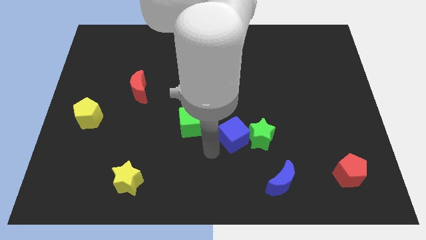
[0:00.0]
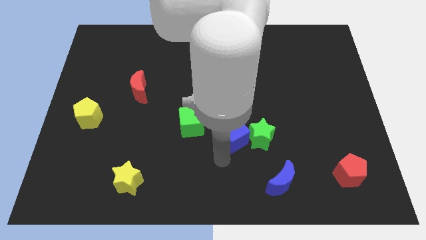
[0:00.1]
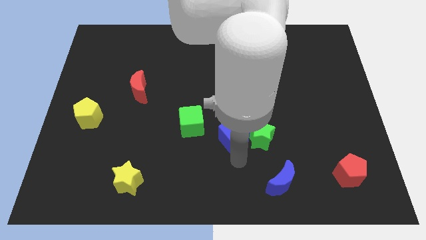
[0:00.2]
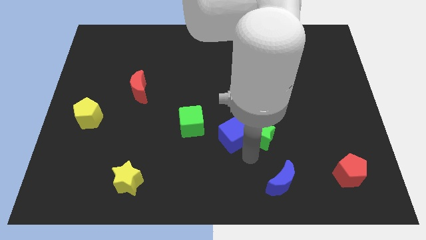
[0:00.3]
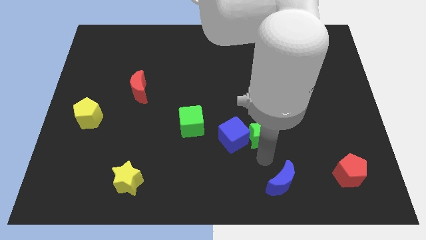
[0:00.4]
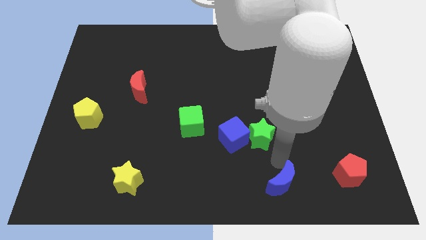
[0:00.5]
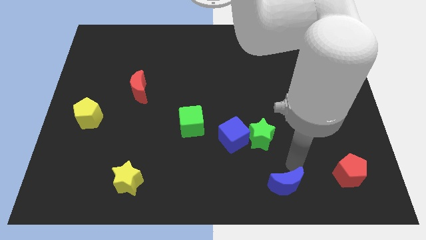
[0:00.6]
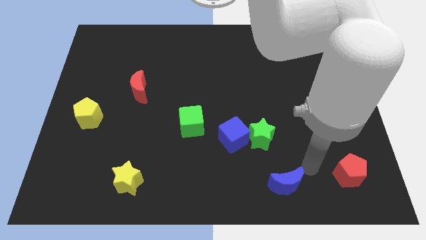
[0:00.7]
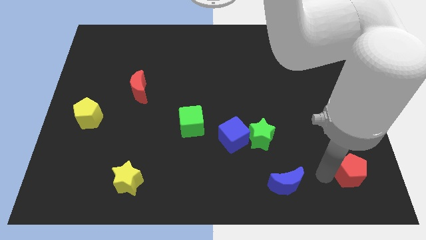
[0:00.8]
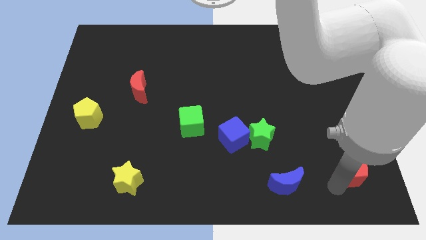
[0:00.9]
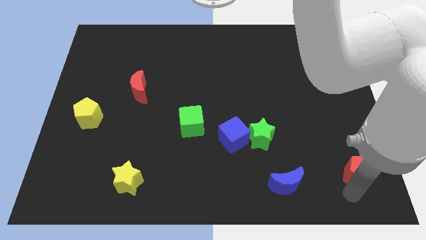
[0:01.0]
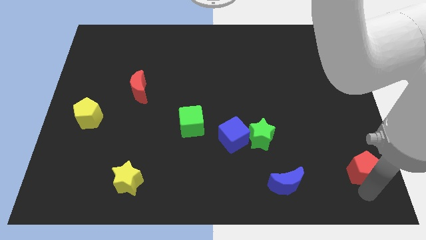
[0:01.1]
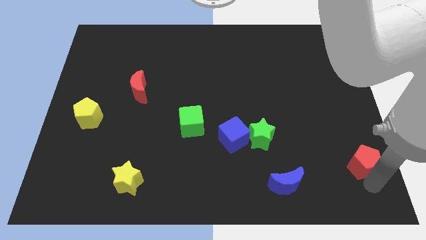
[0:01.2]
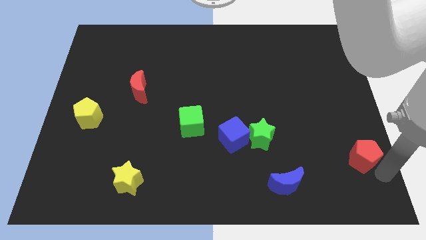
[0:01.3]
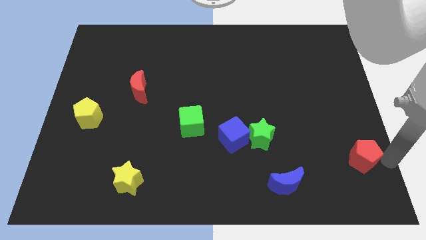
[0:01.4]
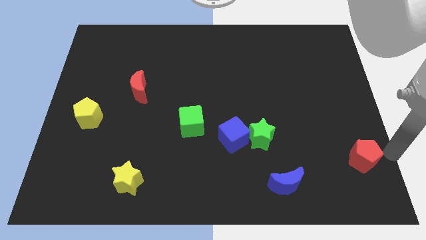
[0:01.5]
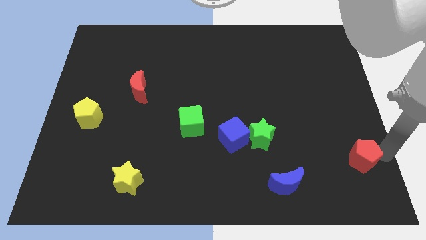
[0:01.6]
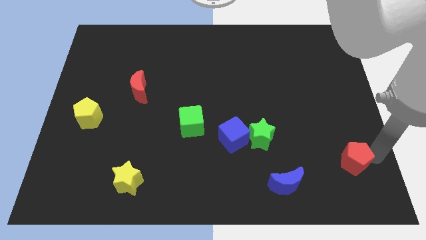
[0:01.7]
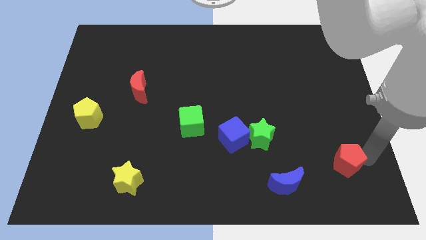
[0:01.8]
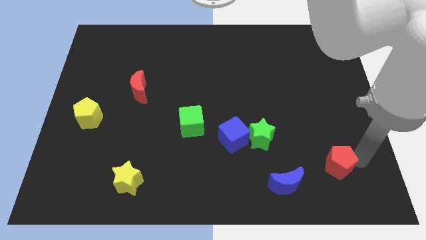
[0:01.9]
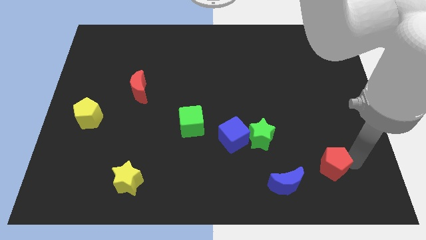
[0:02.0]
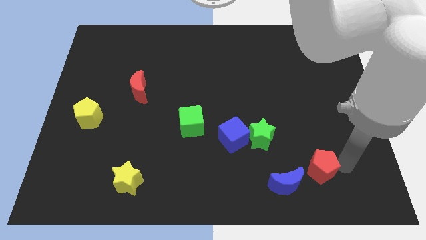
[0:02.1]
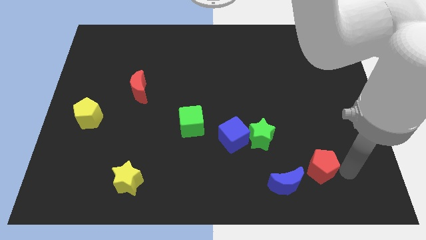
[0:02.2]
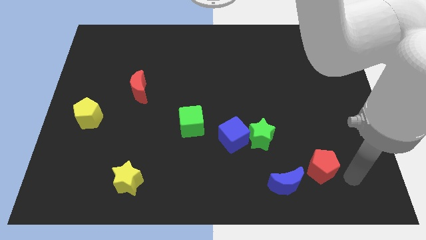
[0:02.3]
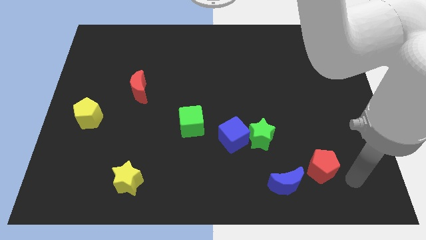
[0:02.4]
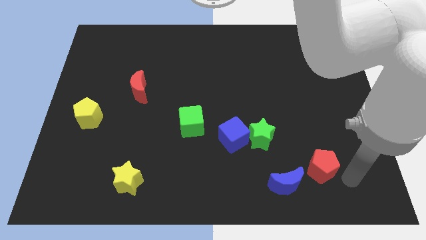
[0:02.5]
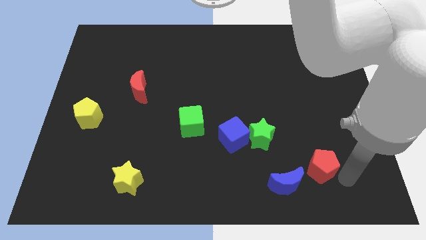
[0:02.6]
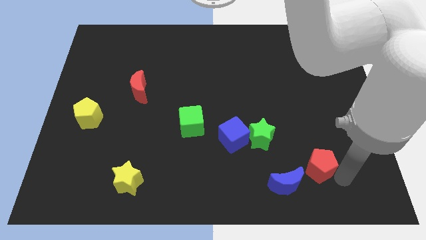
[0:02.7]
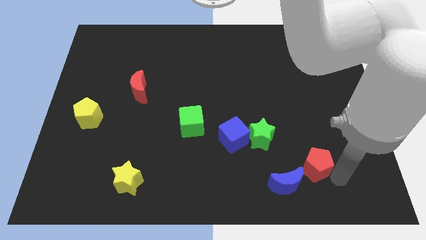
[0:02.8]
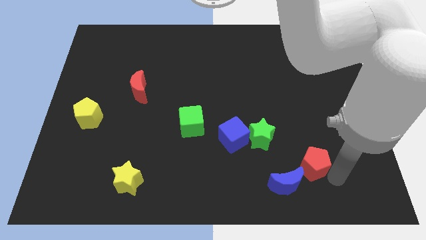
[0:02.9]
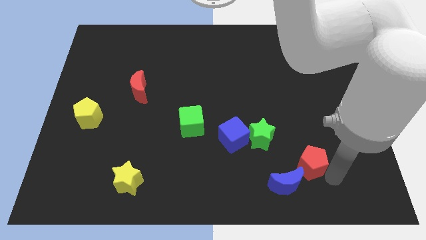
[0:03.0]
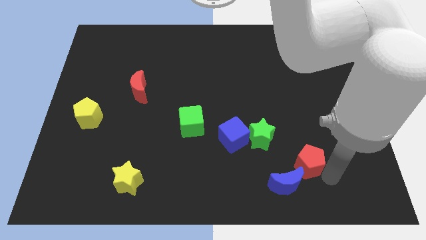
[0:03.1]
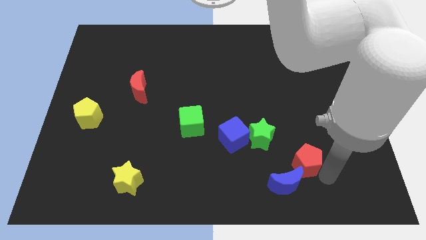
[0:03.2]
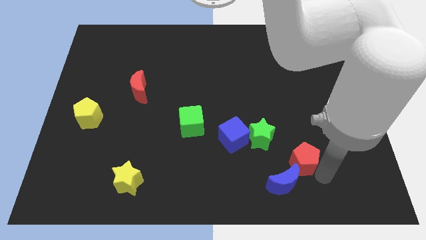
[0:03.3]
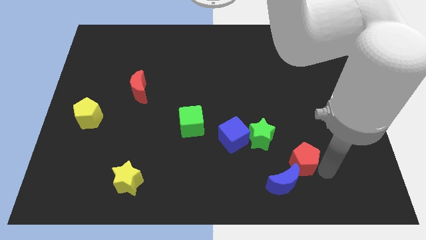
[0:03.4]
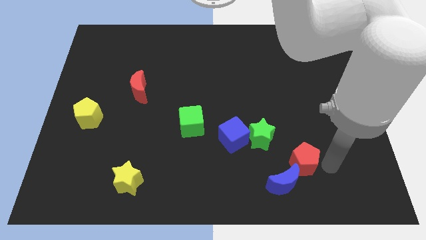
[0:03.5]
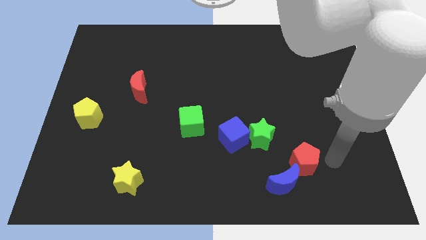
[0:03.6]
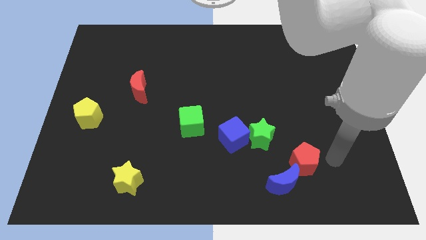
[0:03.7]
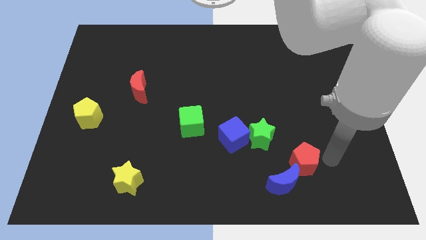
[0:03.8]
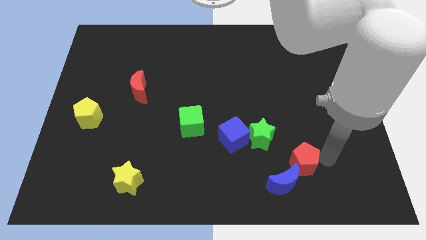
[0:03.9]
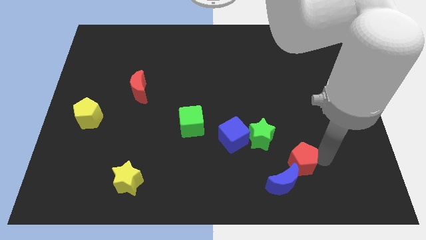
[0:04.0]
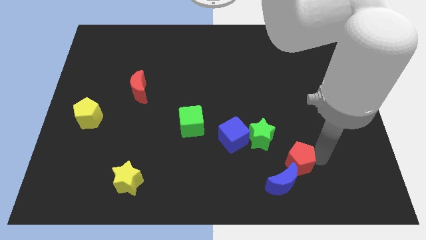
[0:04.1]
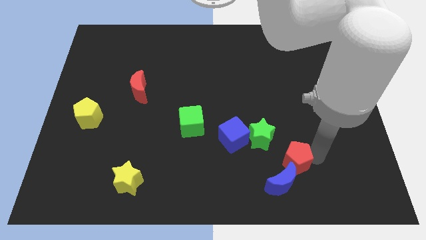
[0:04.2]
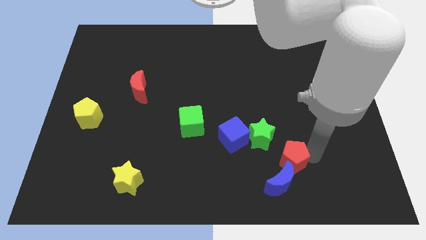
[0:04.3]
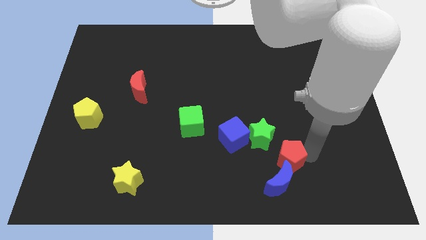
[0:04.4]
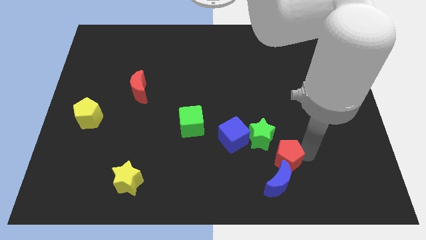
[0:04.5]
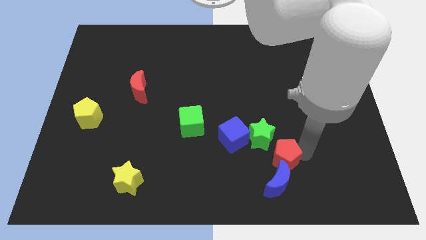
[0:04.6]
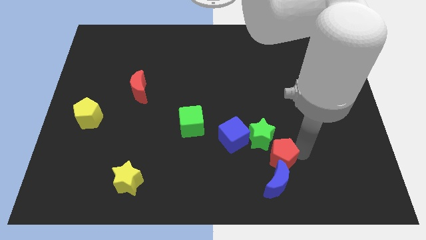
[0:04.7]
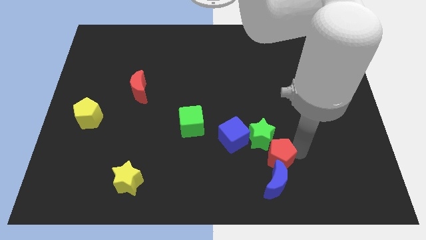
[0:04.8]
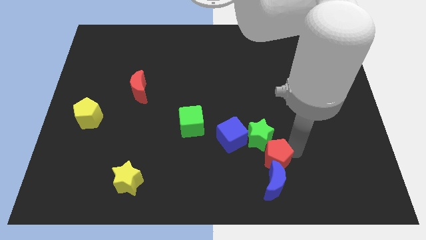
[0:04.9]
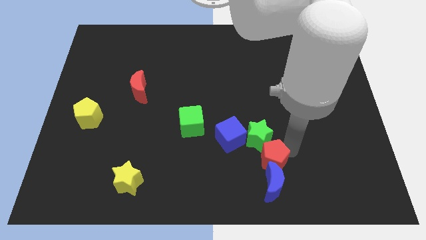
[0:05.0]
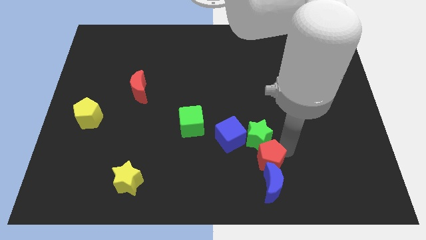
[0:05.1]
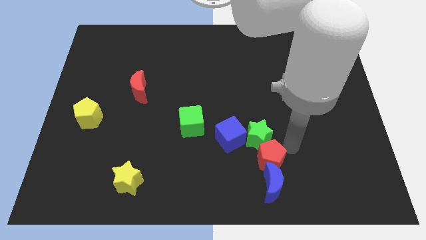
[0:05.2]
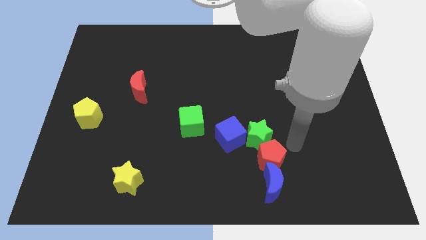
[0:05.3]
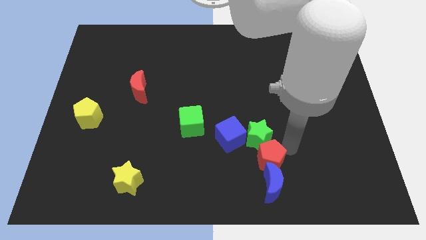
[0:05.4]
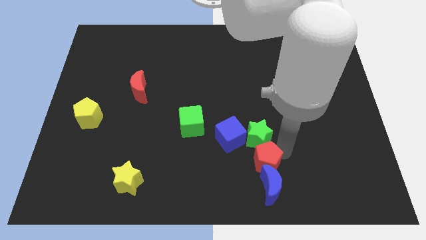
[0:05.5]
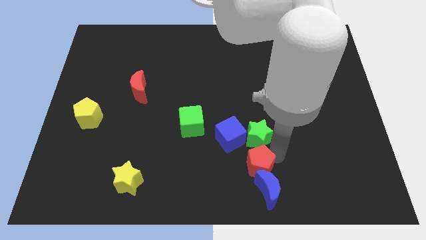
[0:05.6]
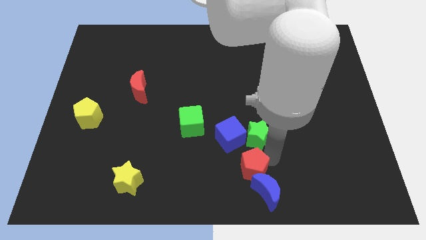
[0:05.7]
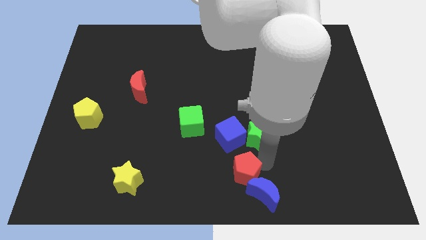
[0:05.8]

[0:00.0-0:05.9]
slide the red pentagon to the left

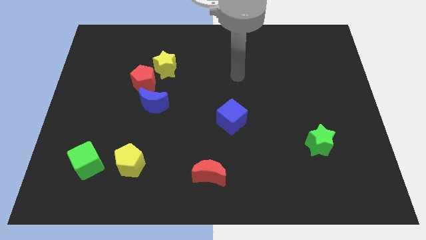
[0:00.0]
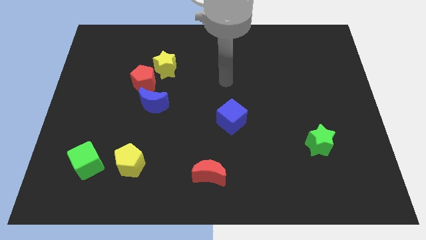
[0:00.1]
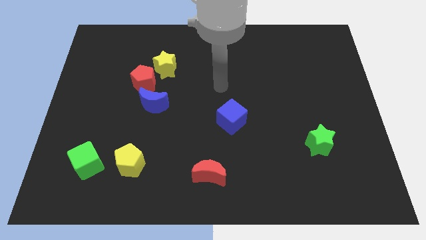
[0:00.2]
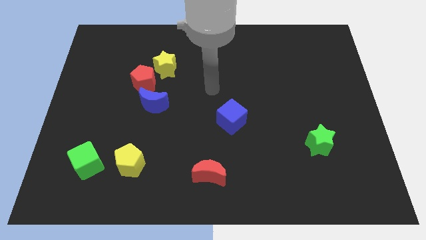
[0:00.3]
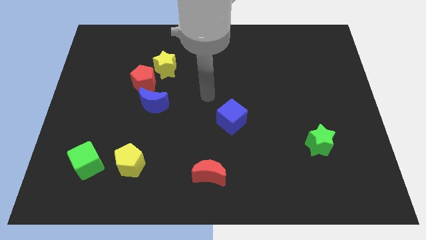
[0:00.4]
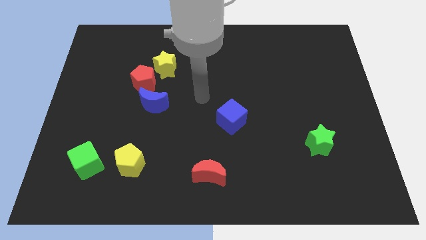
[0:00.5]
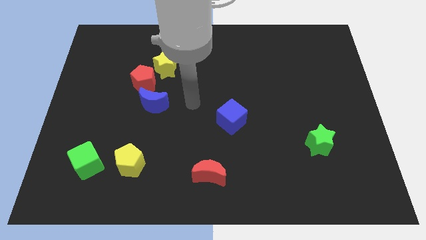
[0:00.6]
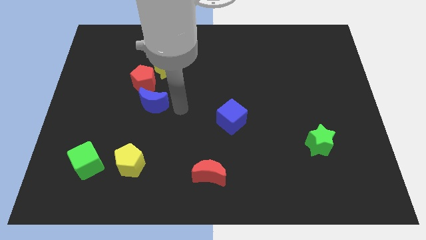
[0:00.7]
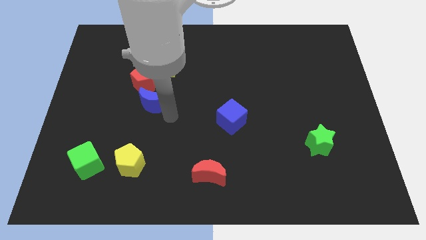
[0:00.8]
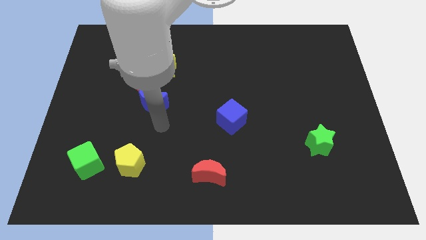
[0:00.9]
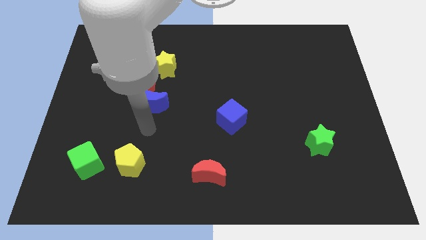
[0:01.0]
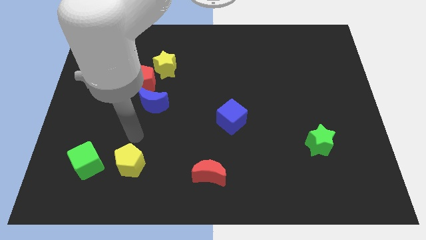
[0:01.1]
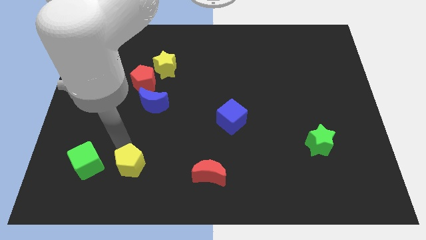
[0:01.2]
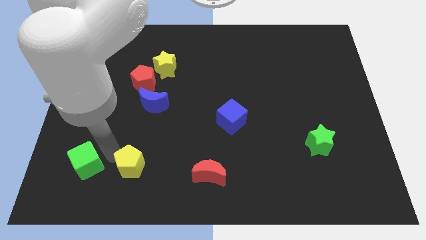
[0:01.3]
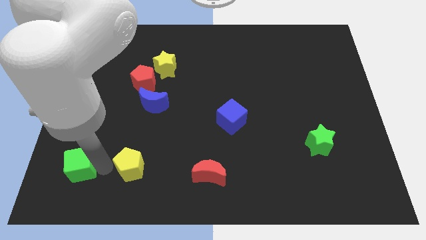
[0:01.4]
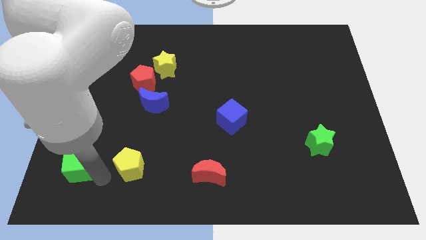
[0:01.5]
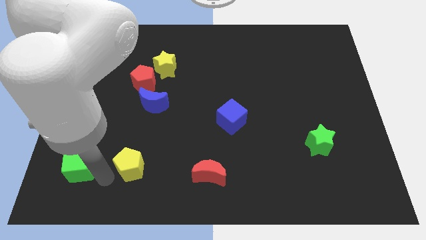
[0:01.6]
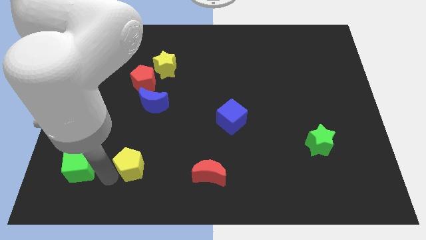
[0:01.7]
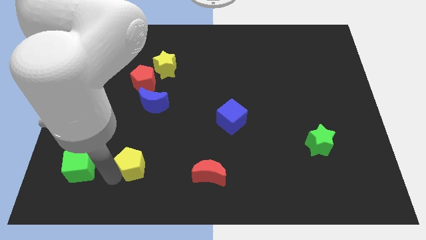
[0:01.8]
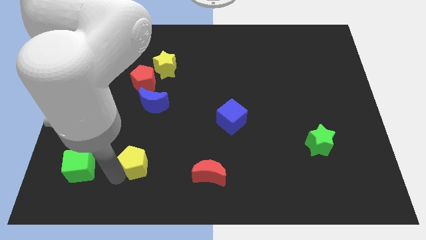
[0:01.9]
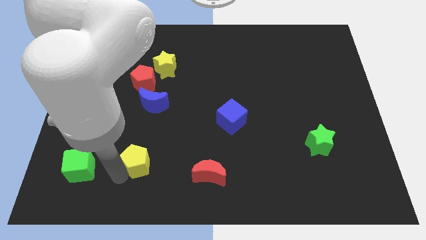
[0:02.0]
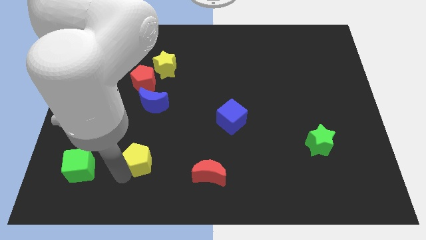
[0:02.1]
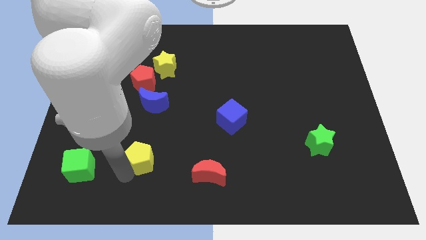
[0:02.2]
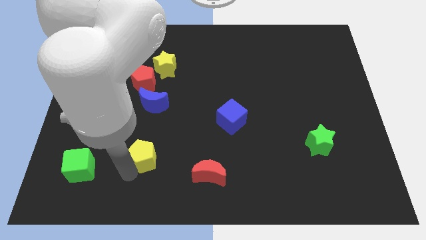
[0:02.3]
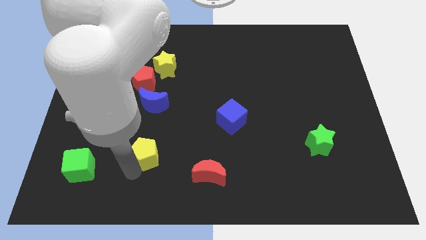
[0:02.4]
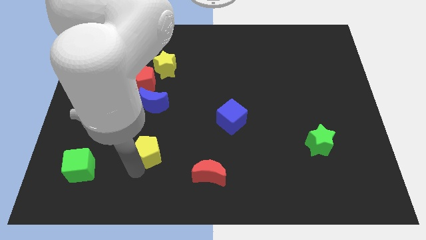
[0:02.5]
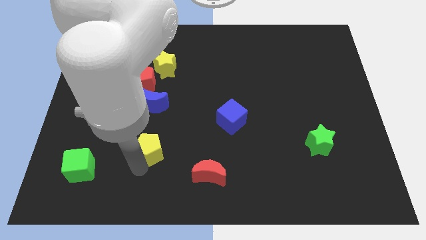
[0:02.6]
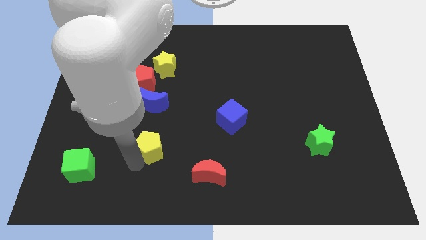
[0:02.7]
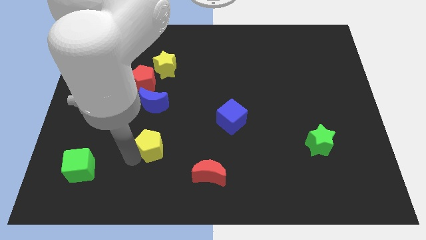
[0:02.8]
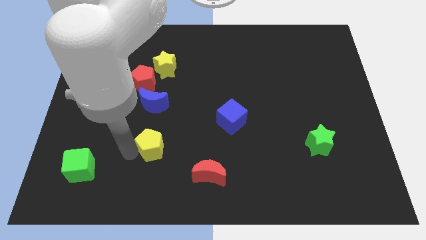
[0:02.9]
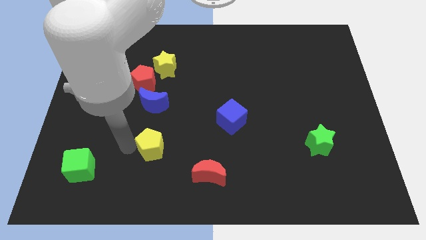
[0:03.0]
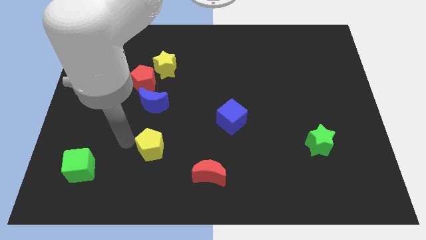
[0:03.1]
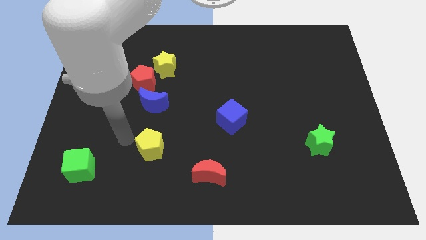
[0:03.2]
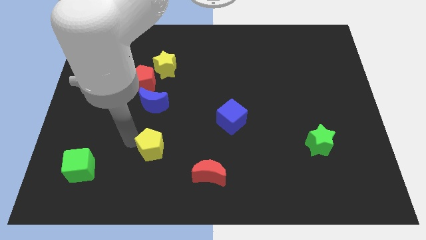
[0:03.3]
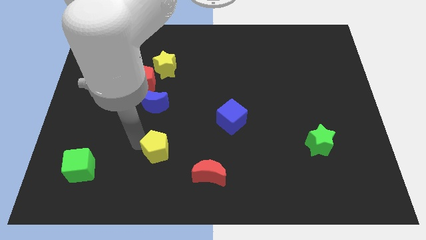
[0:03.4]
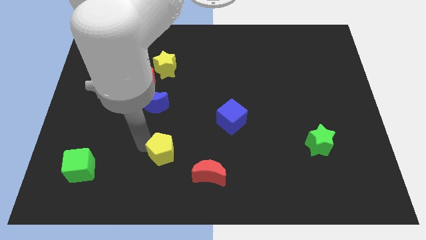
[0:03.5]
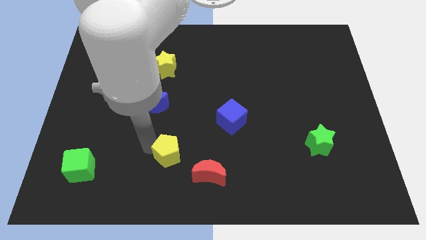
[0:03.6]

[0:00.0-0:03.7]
slightly slide the yellow pentagon to the right
